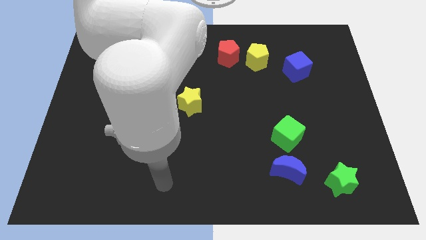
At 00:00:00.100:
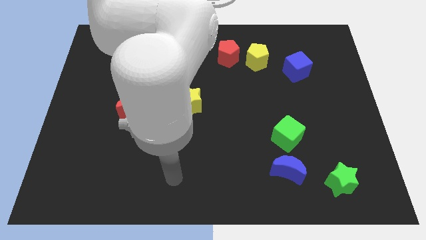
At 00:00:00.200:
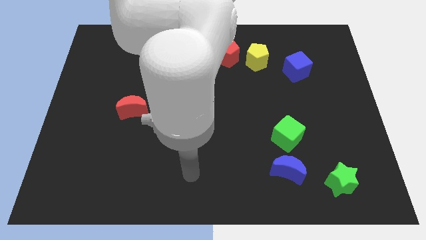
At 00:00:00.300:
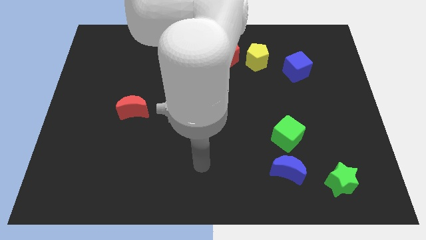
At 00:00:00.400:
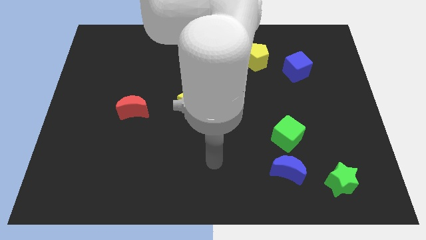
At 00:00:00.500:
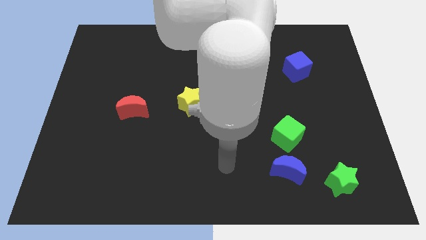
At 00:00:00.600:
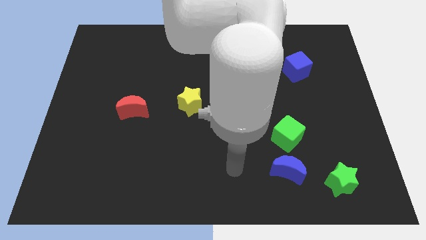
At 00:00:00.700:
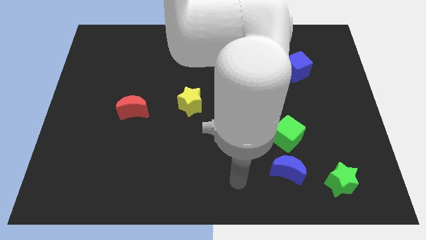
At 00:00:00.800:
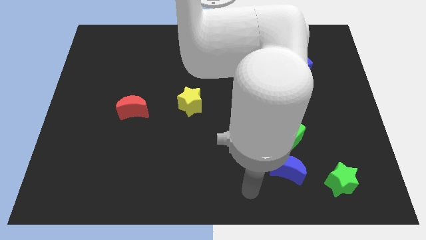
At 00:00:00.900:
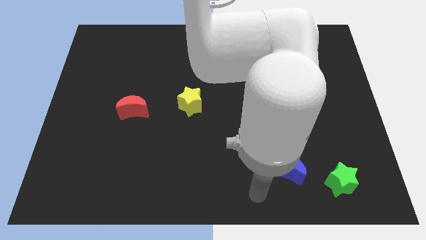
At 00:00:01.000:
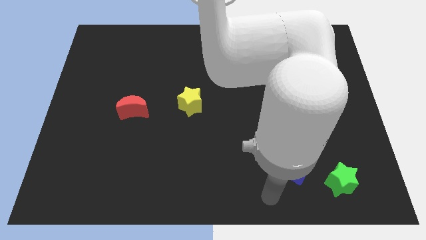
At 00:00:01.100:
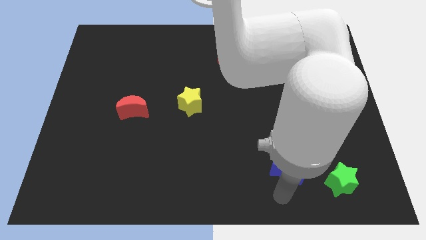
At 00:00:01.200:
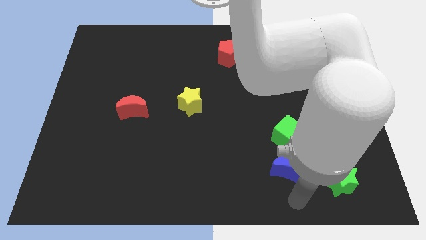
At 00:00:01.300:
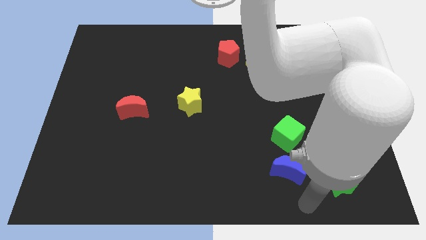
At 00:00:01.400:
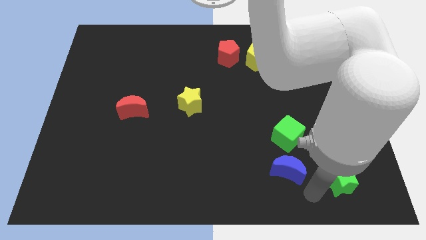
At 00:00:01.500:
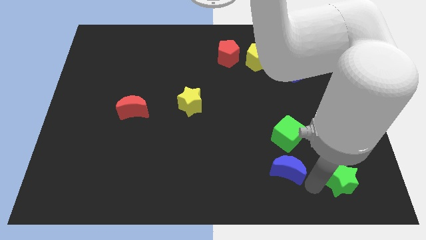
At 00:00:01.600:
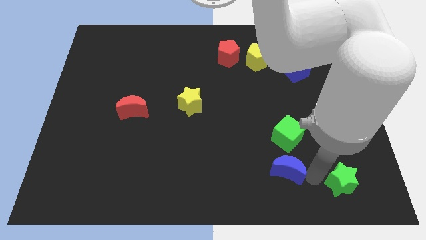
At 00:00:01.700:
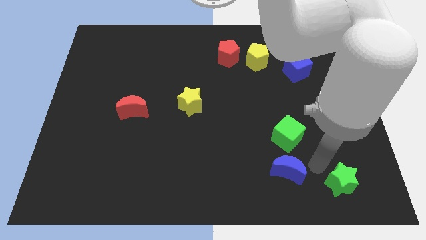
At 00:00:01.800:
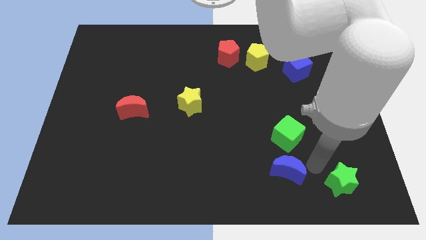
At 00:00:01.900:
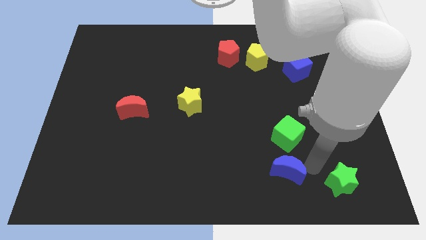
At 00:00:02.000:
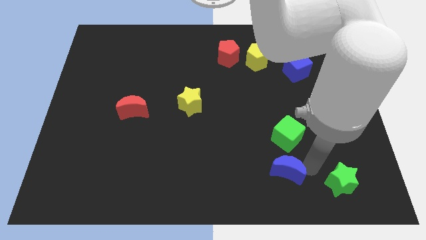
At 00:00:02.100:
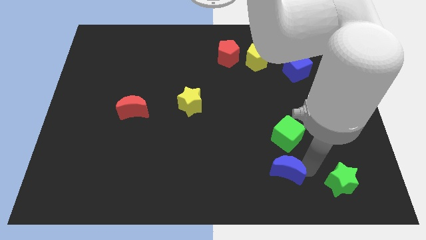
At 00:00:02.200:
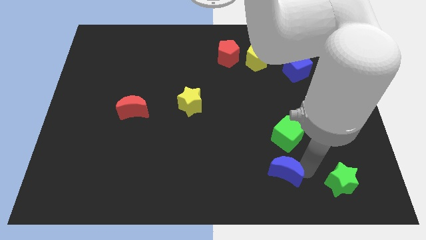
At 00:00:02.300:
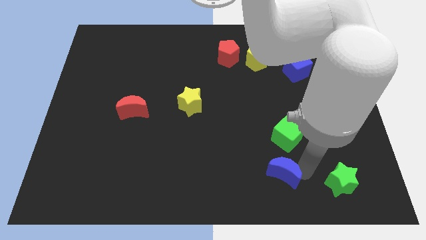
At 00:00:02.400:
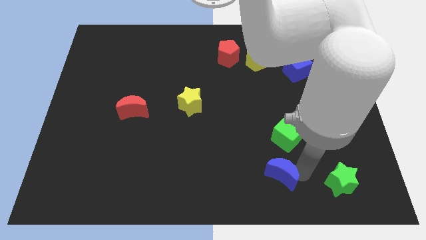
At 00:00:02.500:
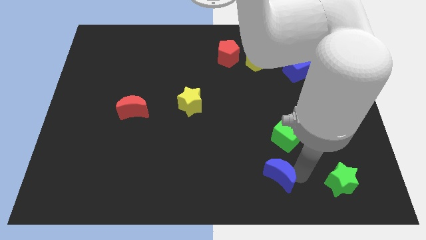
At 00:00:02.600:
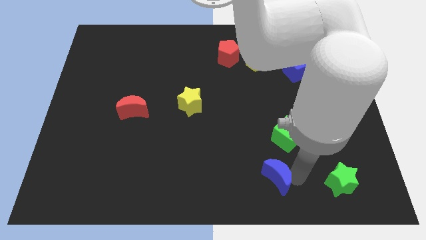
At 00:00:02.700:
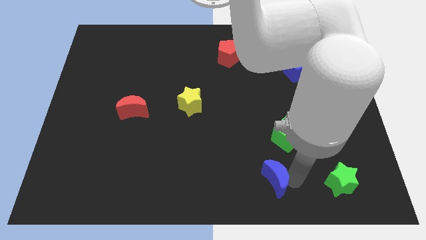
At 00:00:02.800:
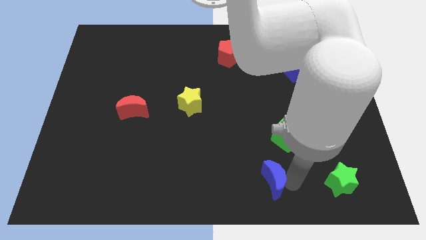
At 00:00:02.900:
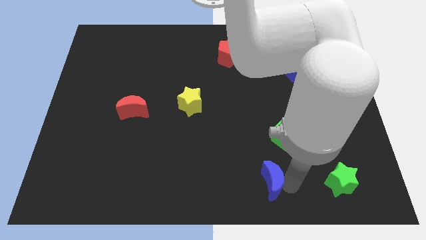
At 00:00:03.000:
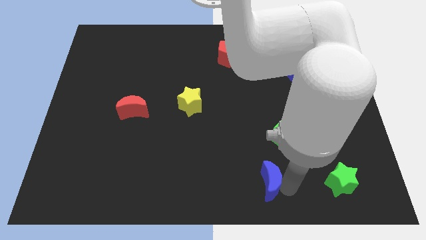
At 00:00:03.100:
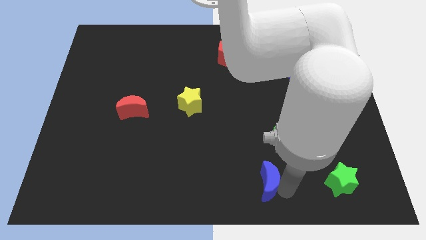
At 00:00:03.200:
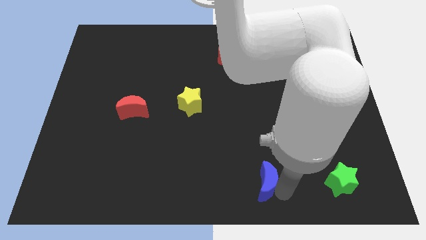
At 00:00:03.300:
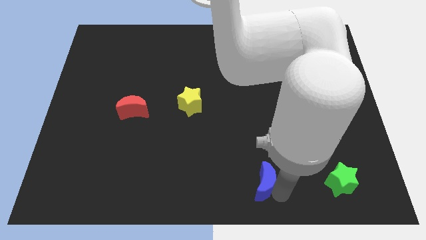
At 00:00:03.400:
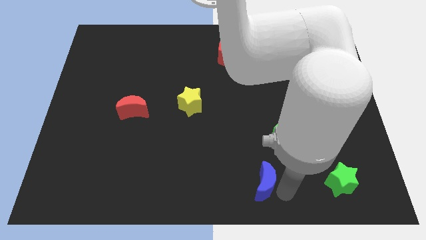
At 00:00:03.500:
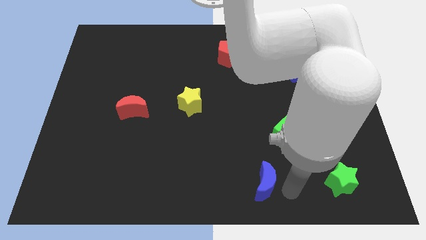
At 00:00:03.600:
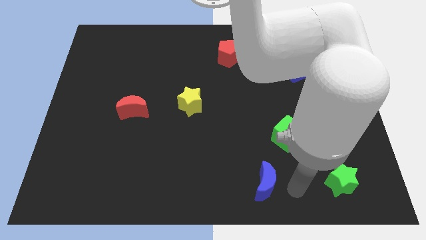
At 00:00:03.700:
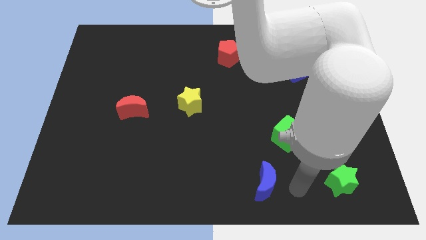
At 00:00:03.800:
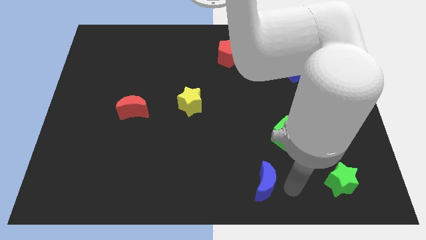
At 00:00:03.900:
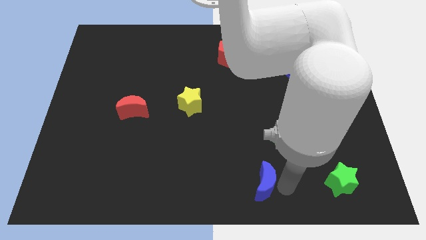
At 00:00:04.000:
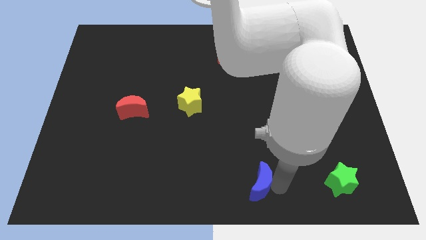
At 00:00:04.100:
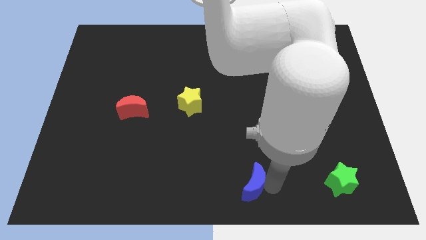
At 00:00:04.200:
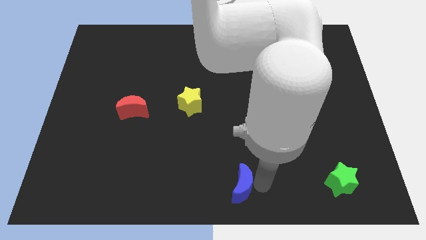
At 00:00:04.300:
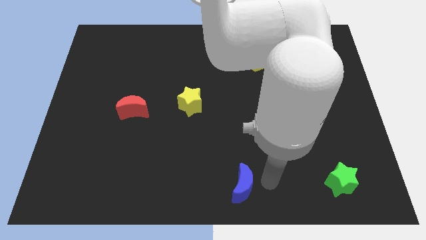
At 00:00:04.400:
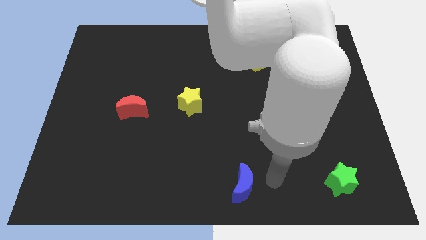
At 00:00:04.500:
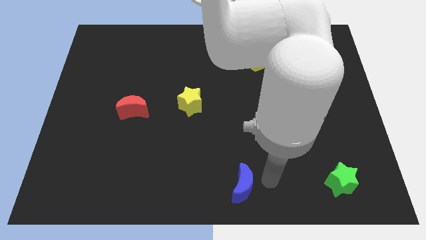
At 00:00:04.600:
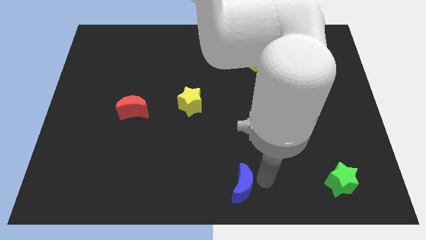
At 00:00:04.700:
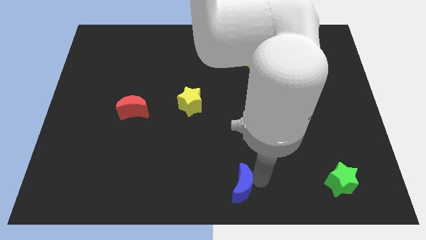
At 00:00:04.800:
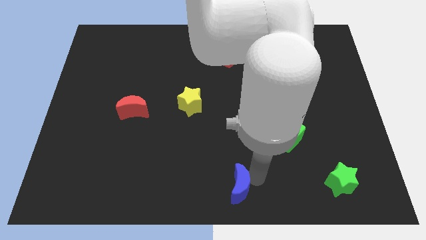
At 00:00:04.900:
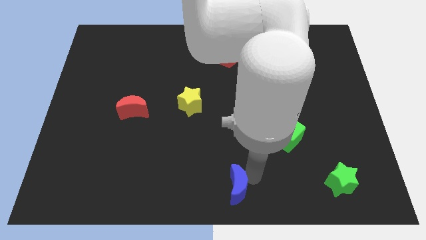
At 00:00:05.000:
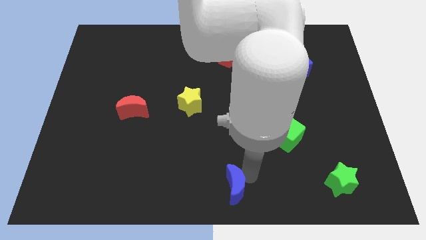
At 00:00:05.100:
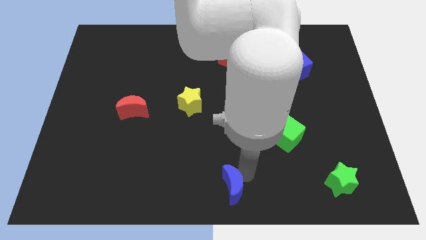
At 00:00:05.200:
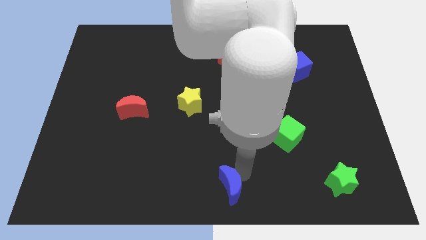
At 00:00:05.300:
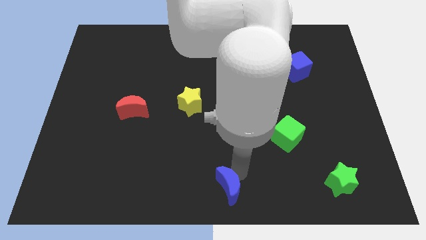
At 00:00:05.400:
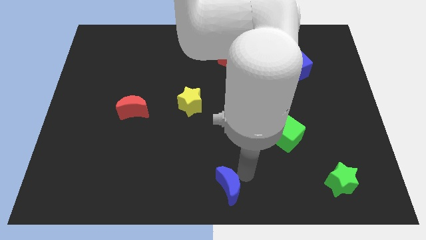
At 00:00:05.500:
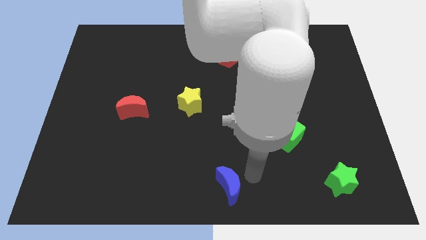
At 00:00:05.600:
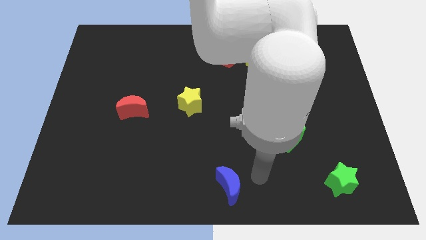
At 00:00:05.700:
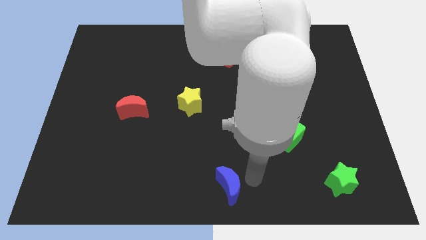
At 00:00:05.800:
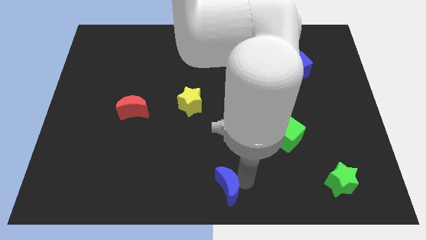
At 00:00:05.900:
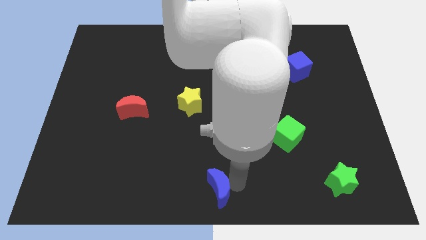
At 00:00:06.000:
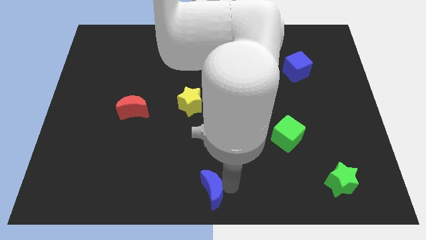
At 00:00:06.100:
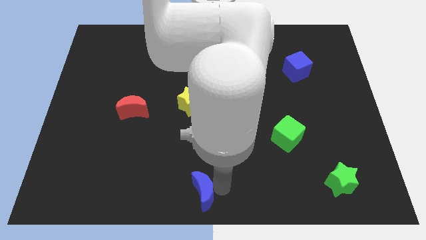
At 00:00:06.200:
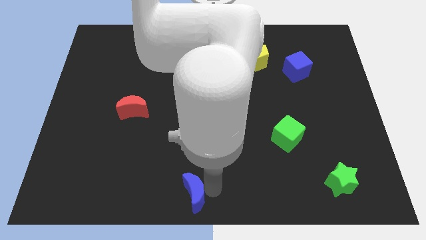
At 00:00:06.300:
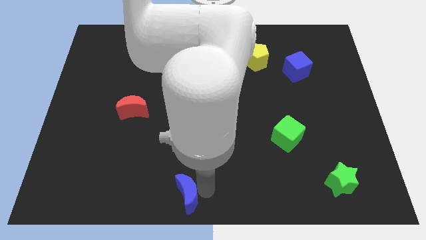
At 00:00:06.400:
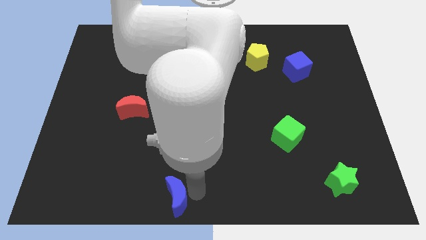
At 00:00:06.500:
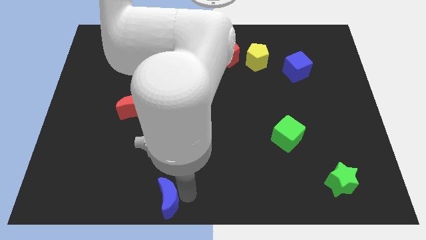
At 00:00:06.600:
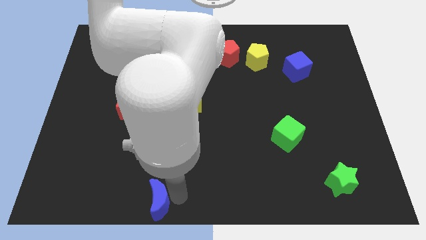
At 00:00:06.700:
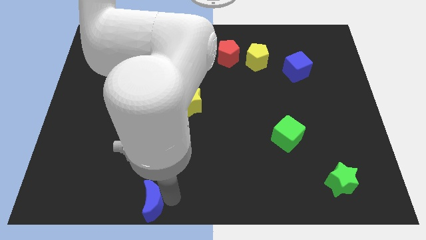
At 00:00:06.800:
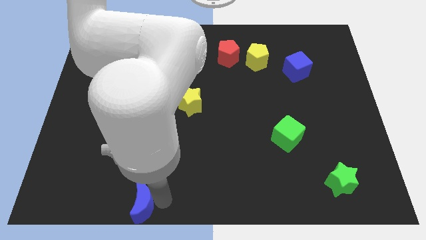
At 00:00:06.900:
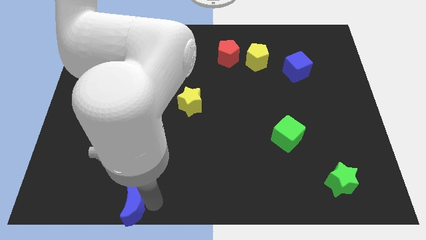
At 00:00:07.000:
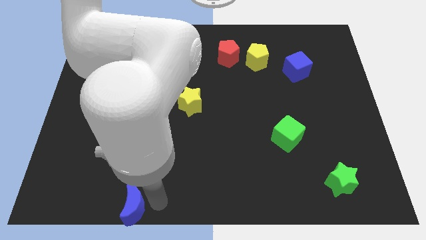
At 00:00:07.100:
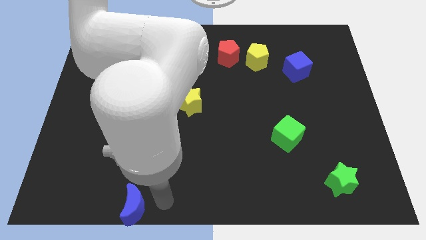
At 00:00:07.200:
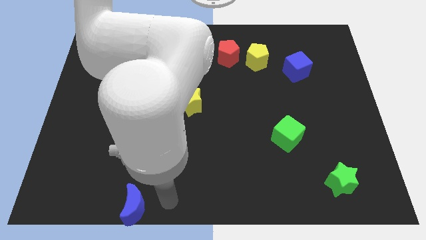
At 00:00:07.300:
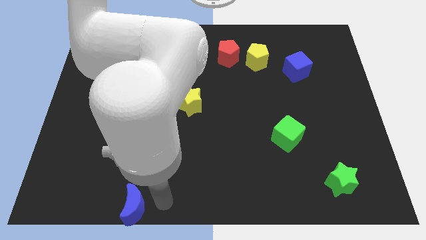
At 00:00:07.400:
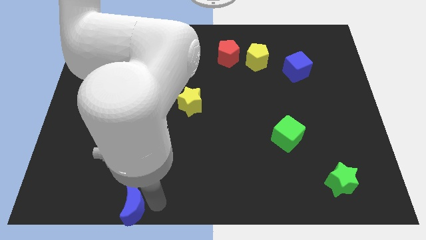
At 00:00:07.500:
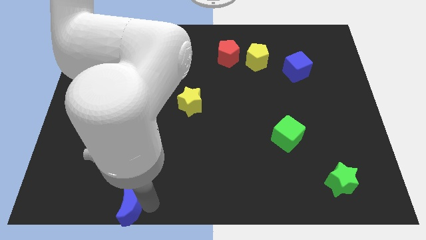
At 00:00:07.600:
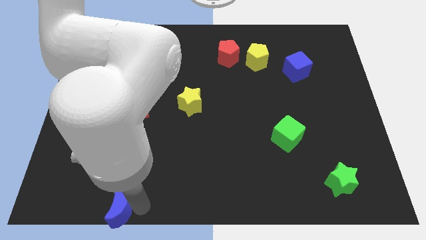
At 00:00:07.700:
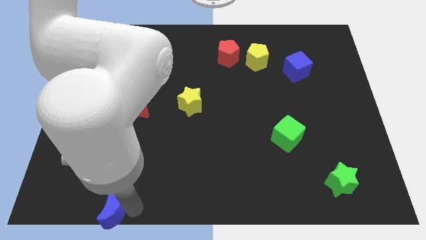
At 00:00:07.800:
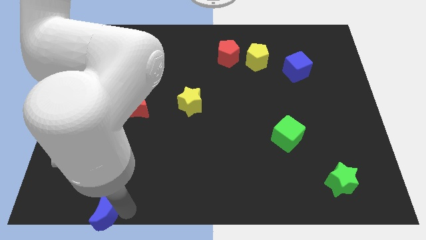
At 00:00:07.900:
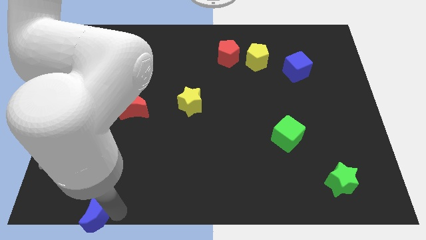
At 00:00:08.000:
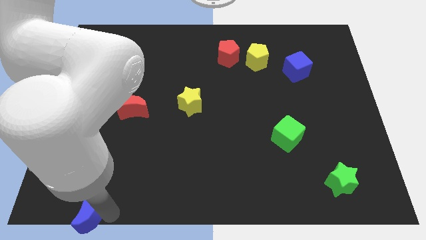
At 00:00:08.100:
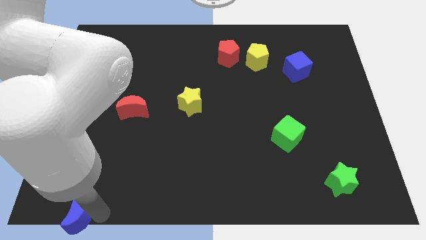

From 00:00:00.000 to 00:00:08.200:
slide the blue moon to the bottom left corner
